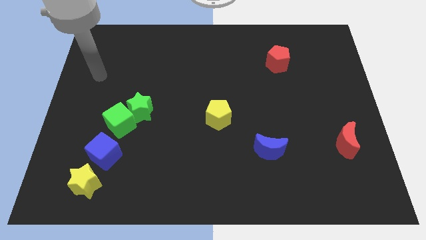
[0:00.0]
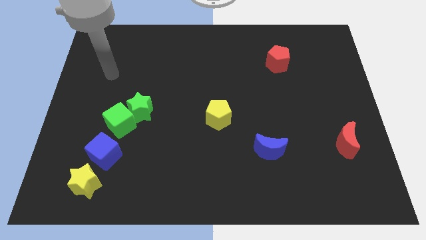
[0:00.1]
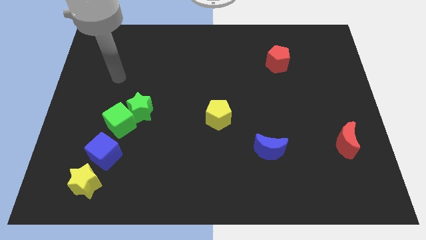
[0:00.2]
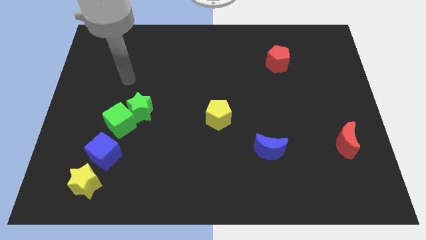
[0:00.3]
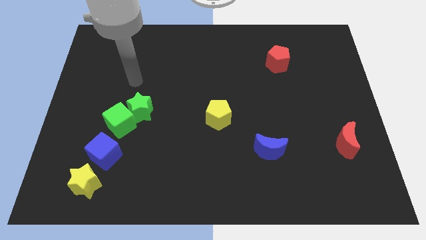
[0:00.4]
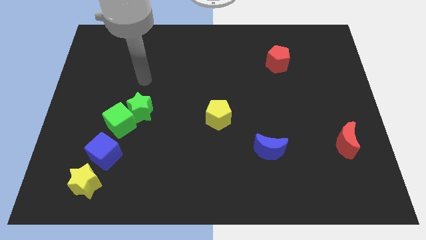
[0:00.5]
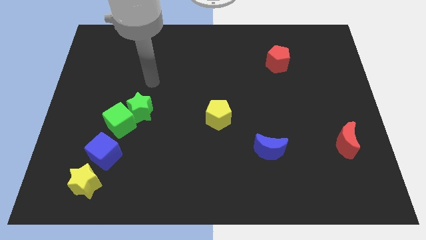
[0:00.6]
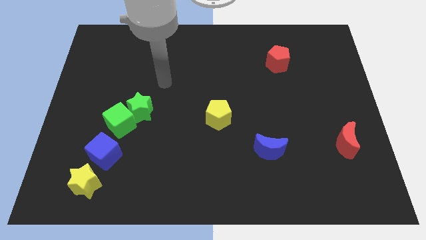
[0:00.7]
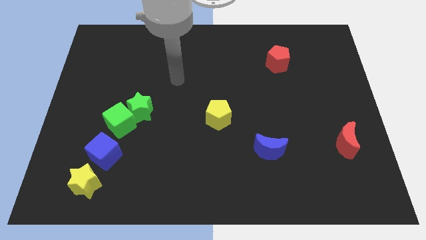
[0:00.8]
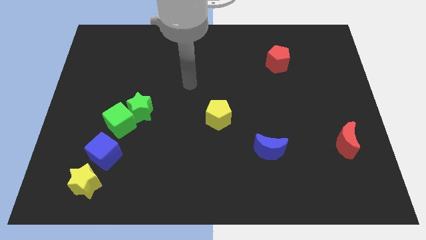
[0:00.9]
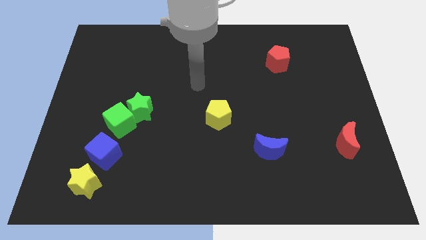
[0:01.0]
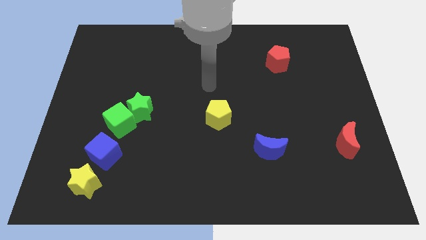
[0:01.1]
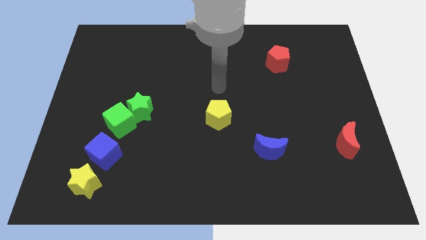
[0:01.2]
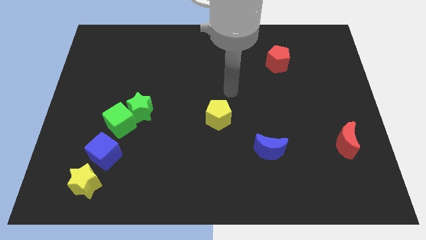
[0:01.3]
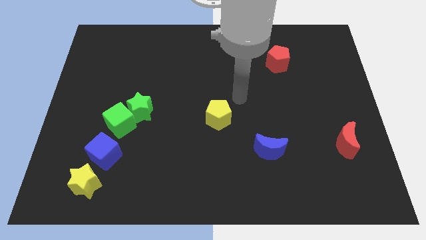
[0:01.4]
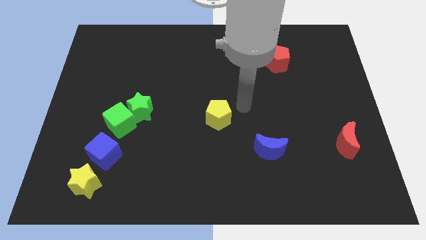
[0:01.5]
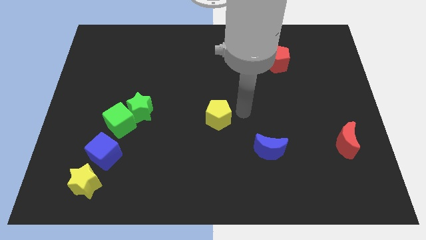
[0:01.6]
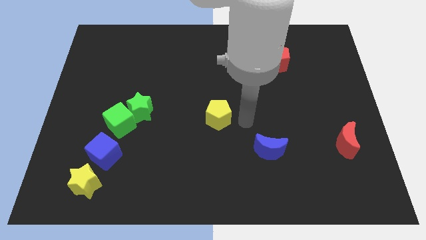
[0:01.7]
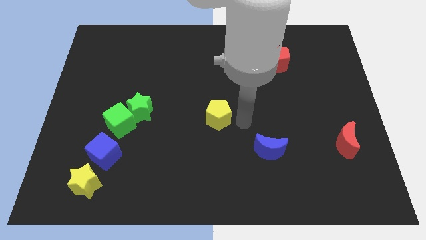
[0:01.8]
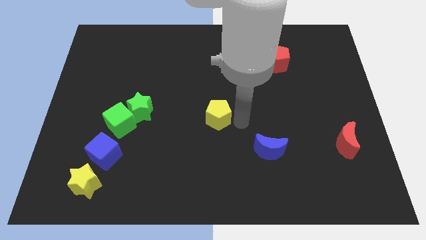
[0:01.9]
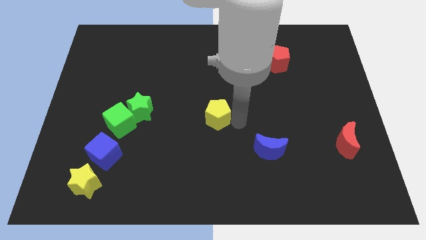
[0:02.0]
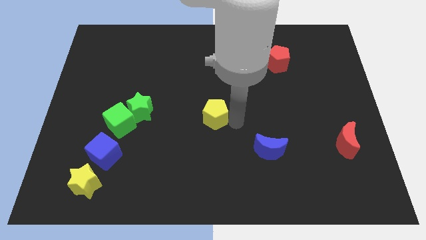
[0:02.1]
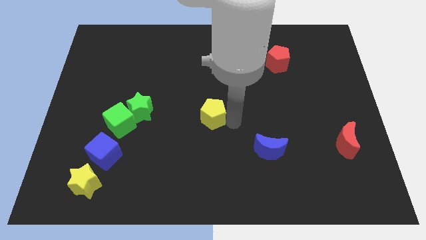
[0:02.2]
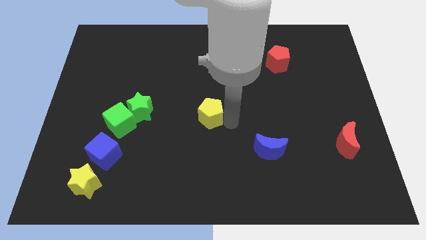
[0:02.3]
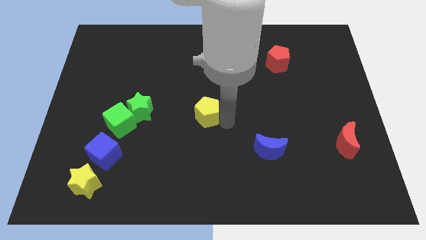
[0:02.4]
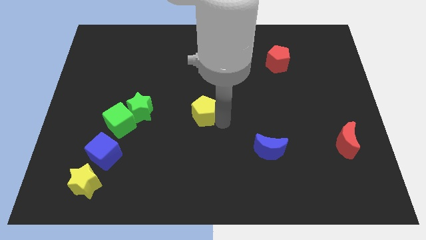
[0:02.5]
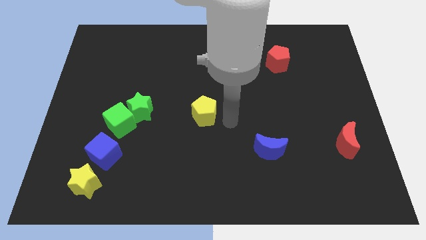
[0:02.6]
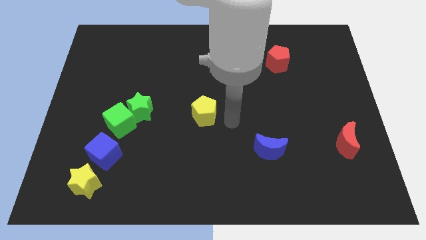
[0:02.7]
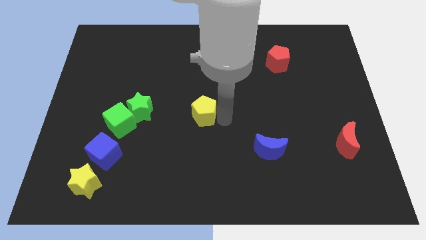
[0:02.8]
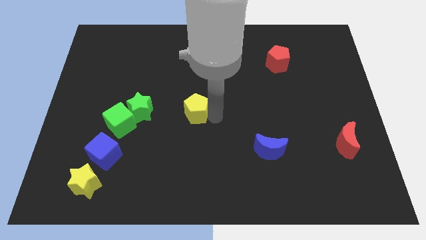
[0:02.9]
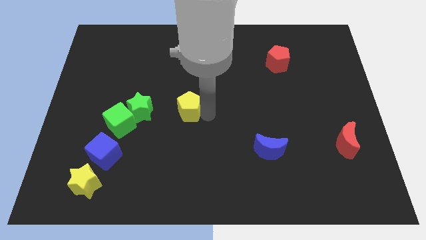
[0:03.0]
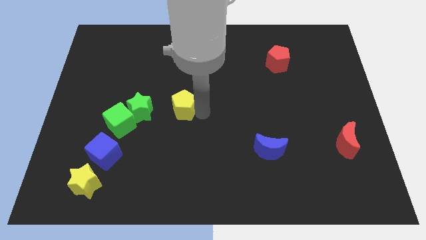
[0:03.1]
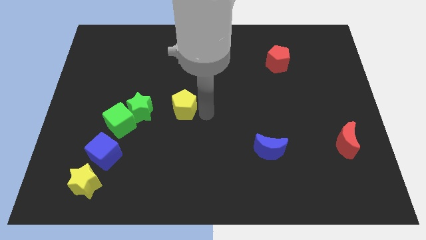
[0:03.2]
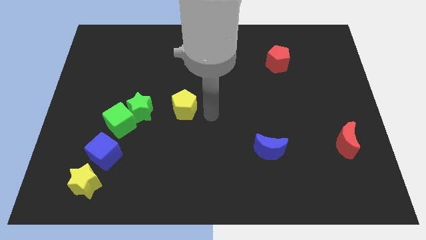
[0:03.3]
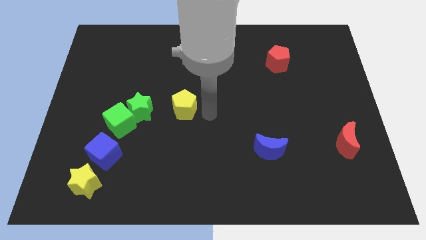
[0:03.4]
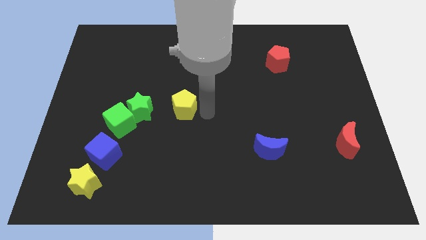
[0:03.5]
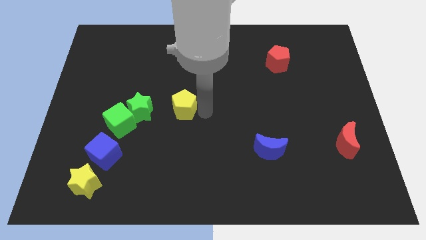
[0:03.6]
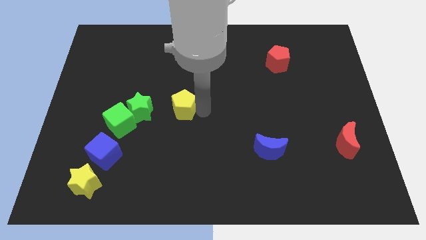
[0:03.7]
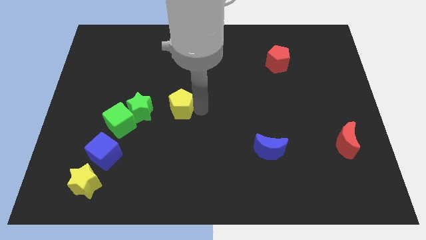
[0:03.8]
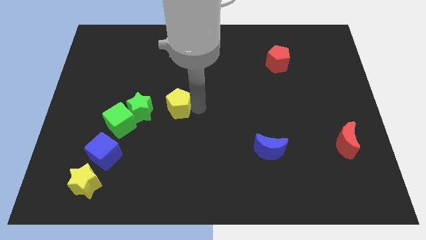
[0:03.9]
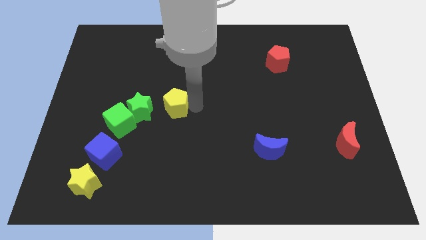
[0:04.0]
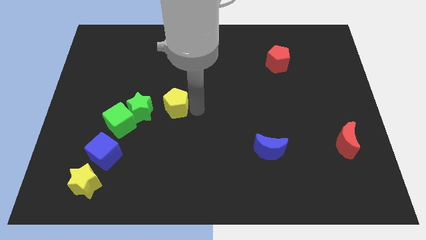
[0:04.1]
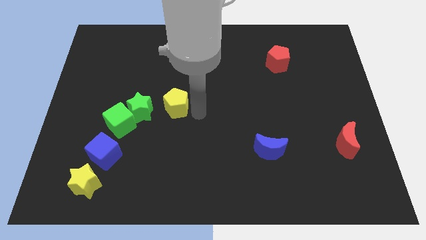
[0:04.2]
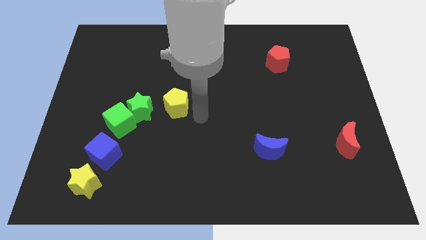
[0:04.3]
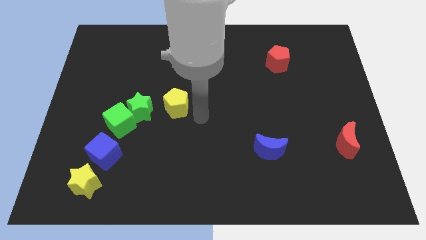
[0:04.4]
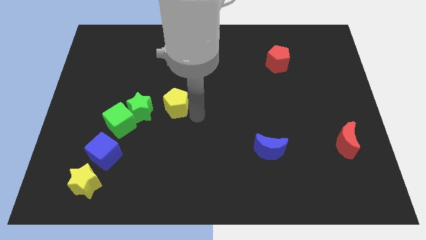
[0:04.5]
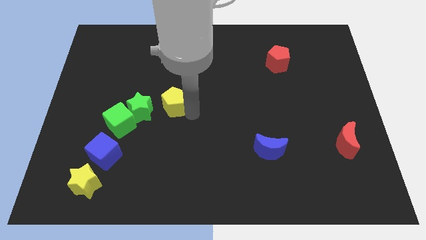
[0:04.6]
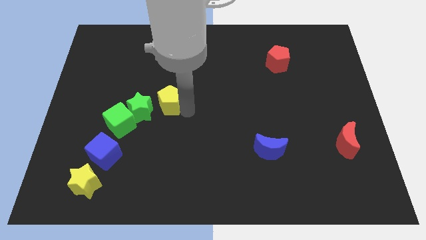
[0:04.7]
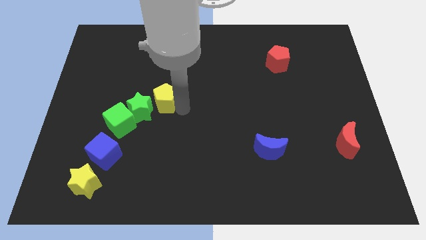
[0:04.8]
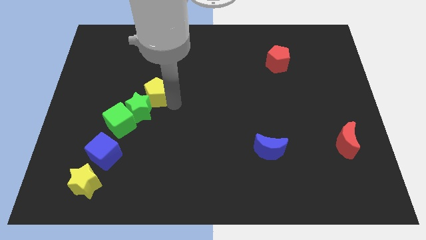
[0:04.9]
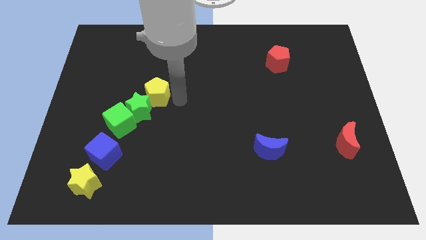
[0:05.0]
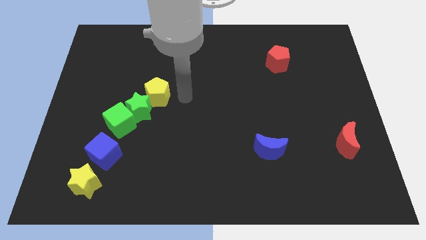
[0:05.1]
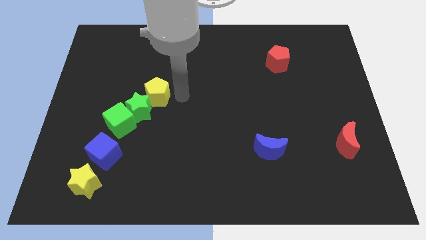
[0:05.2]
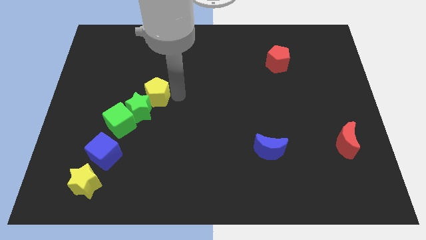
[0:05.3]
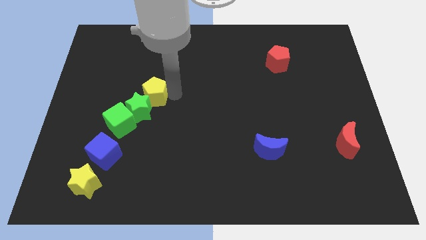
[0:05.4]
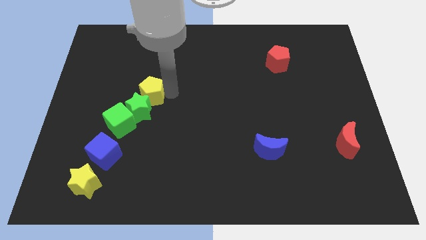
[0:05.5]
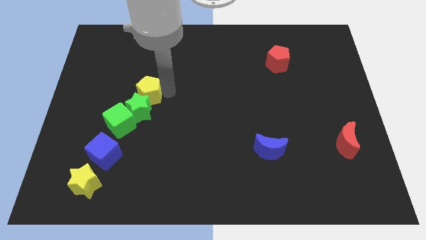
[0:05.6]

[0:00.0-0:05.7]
push the yellow pentagon to the top left side of the green star

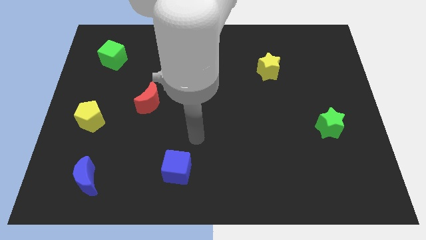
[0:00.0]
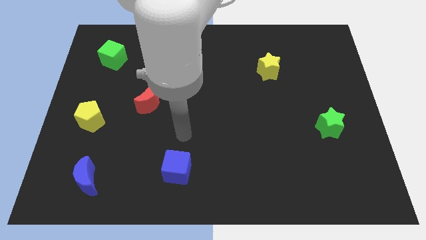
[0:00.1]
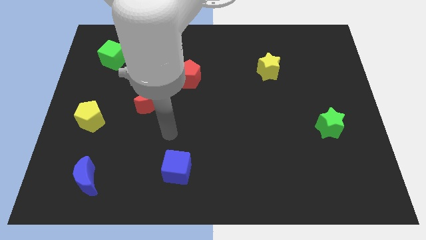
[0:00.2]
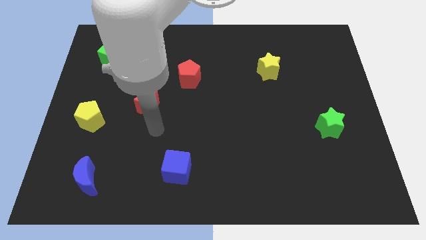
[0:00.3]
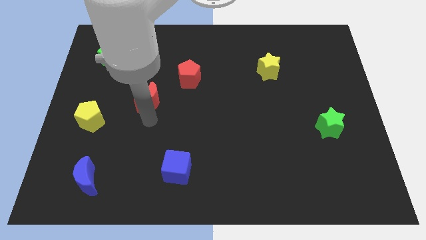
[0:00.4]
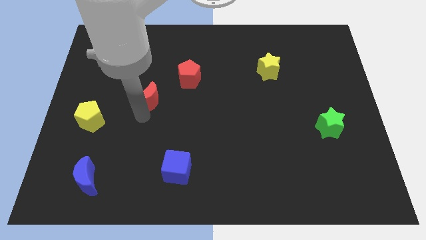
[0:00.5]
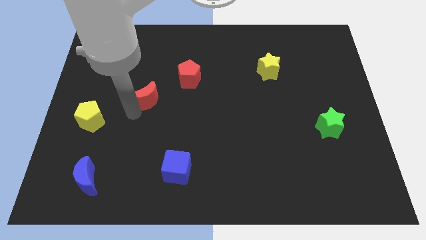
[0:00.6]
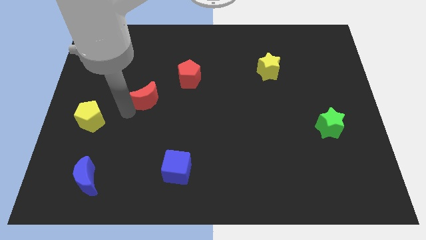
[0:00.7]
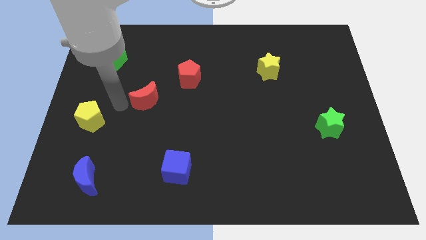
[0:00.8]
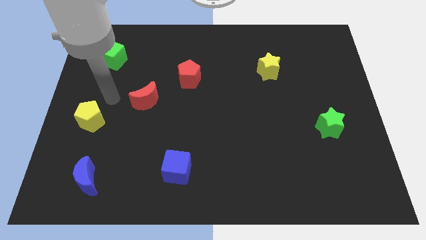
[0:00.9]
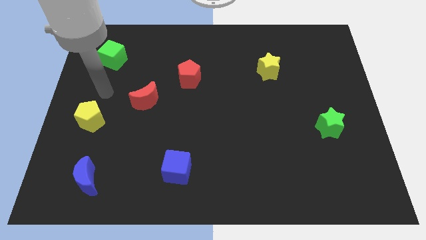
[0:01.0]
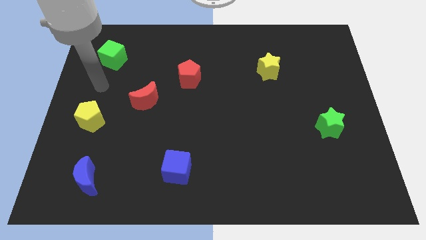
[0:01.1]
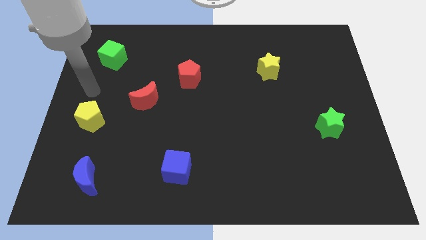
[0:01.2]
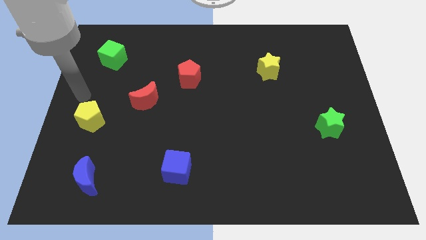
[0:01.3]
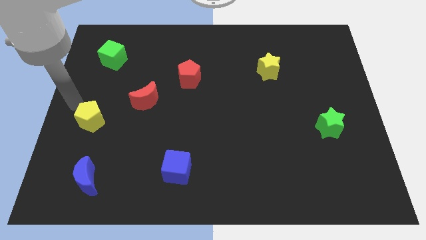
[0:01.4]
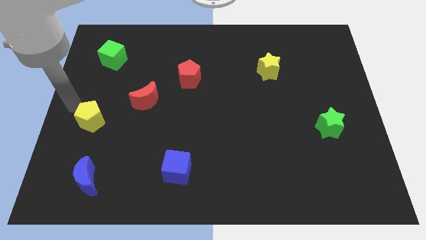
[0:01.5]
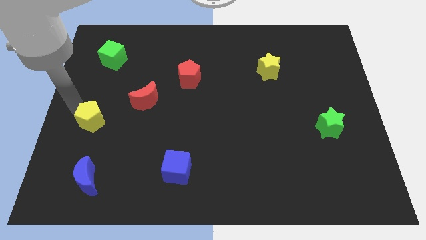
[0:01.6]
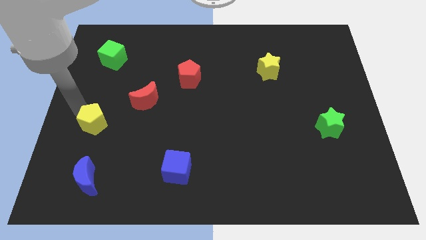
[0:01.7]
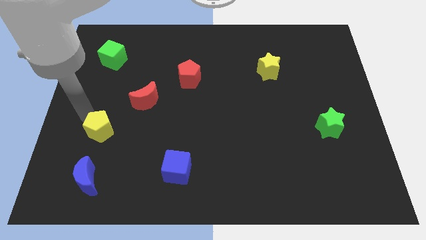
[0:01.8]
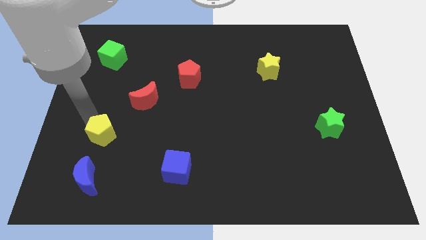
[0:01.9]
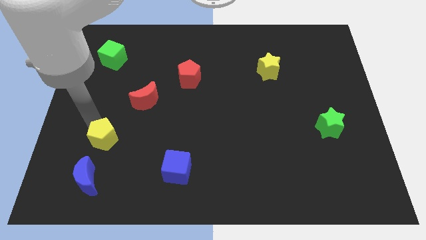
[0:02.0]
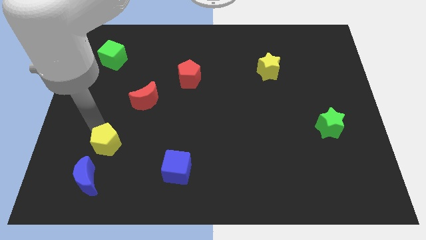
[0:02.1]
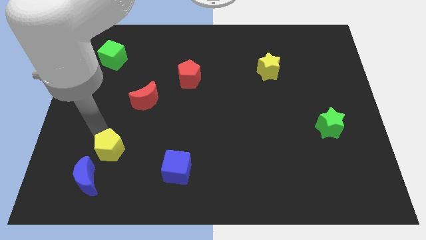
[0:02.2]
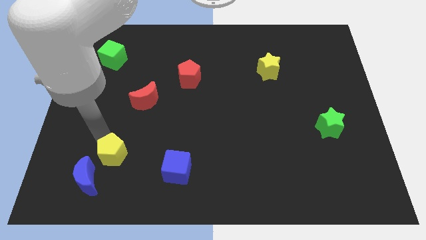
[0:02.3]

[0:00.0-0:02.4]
push the yellow pentagon just left of the blue cube
